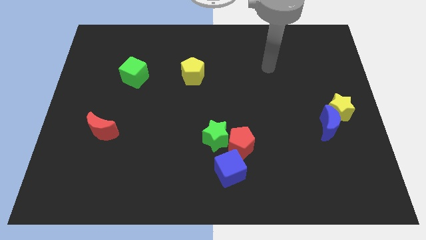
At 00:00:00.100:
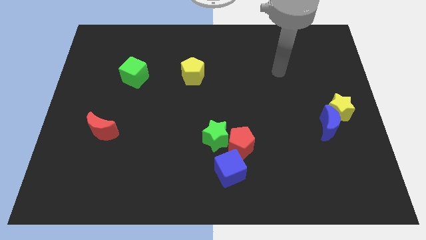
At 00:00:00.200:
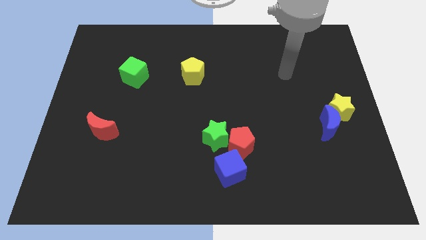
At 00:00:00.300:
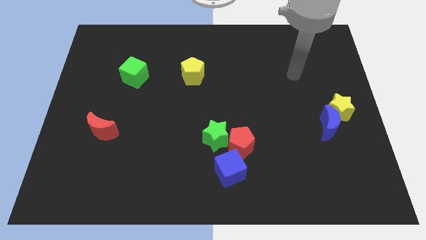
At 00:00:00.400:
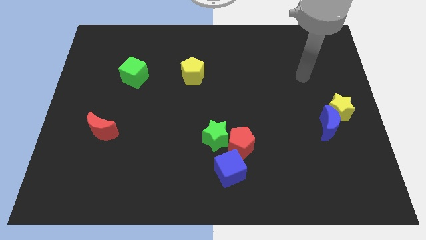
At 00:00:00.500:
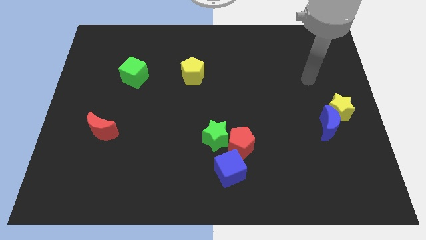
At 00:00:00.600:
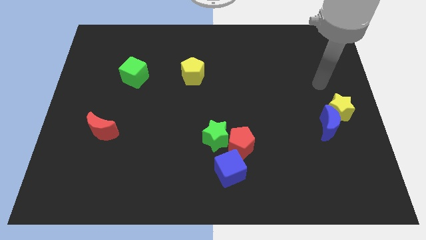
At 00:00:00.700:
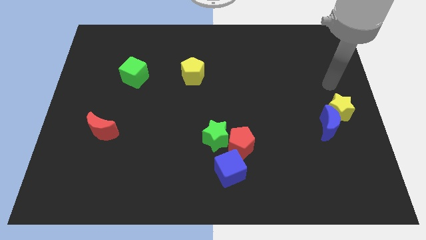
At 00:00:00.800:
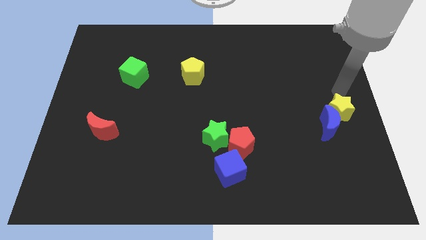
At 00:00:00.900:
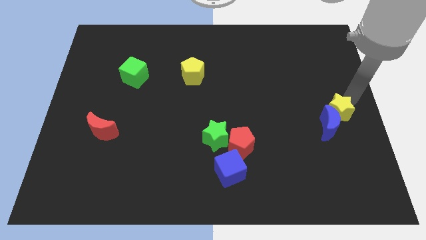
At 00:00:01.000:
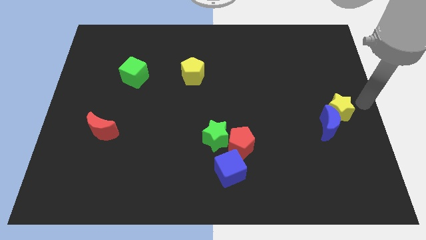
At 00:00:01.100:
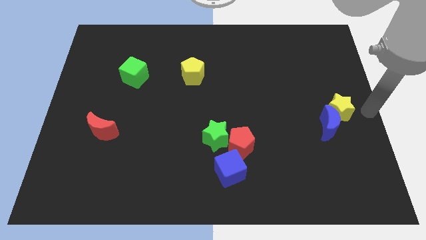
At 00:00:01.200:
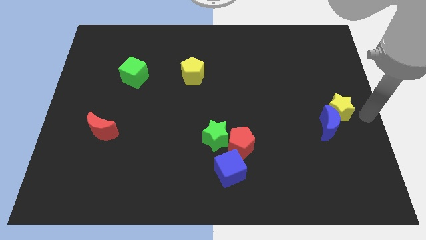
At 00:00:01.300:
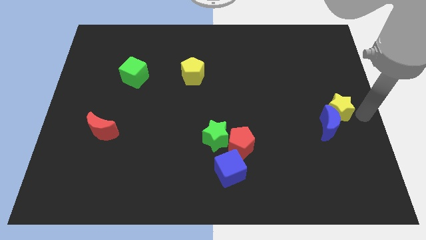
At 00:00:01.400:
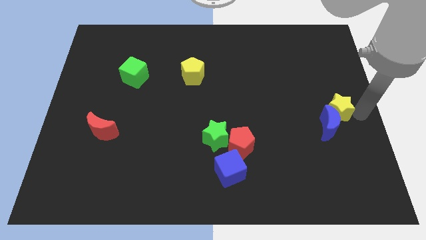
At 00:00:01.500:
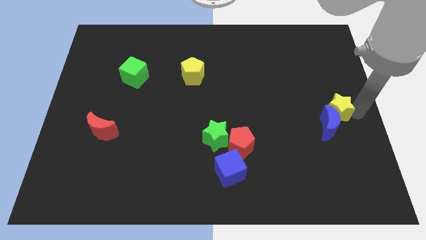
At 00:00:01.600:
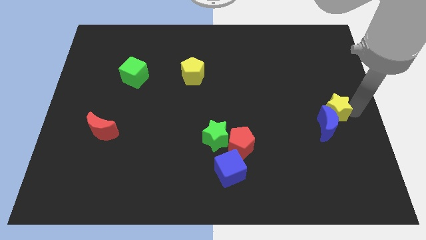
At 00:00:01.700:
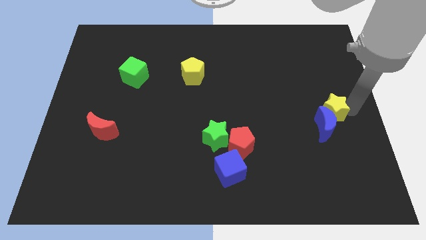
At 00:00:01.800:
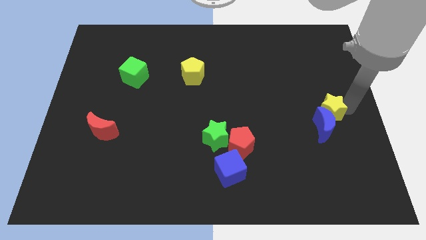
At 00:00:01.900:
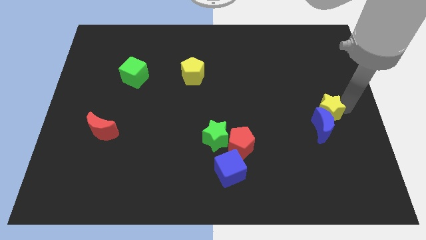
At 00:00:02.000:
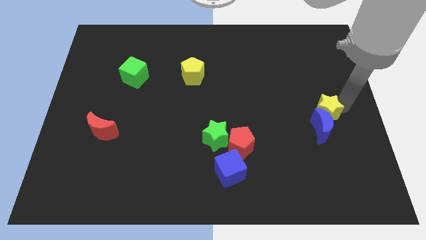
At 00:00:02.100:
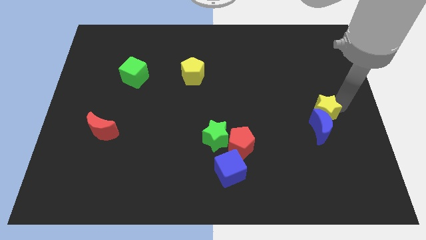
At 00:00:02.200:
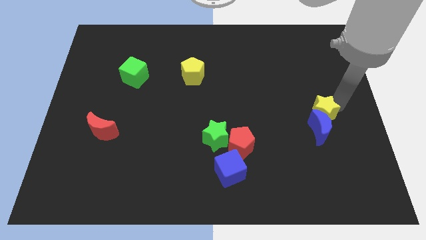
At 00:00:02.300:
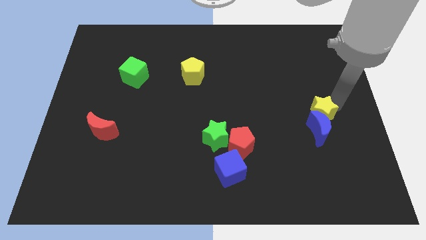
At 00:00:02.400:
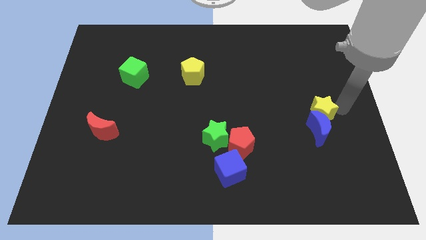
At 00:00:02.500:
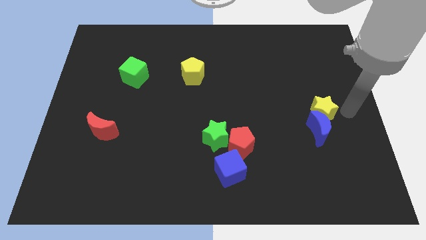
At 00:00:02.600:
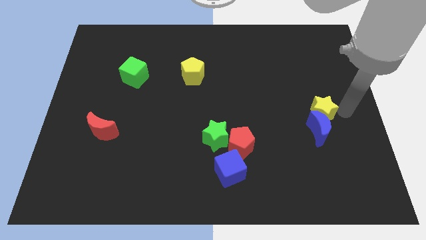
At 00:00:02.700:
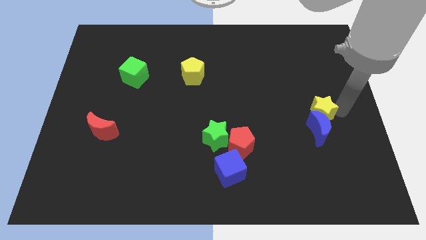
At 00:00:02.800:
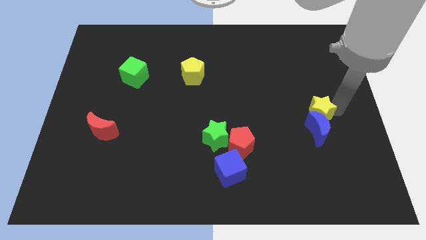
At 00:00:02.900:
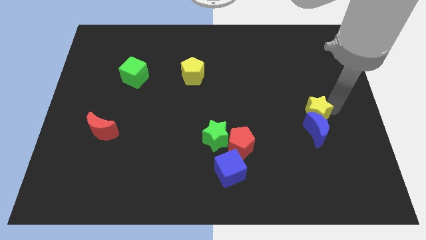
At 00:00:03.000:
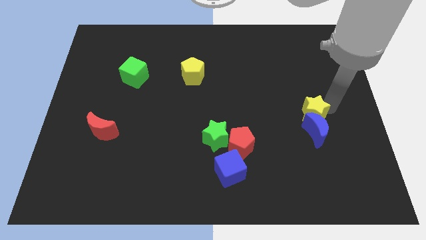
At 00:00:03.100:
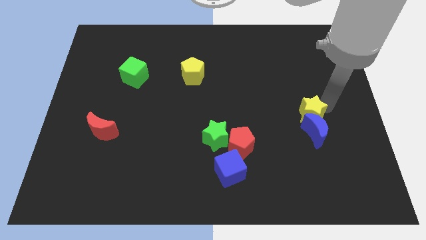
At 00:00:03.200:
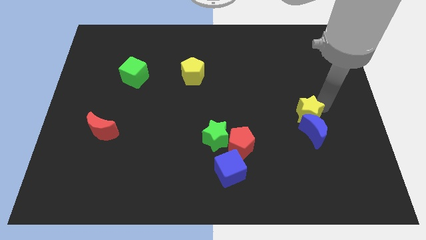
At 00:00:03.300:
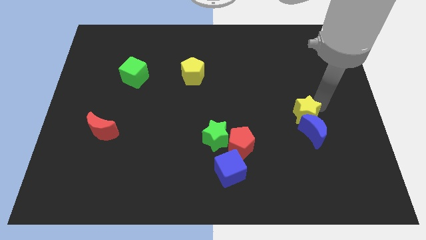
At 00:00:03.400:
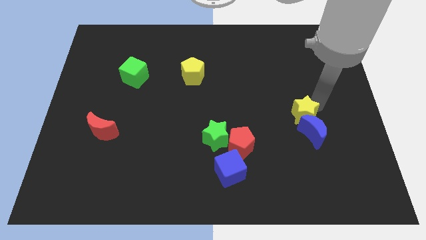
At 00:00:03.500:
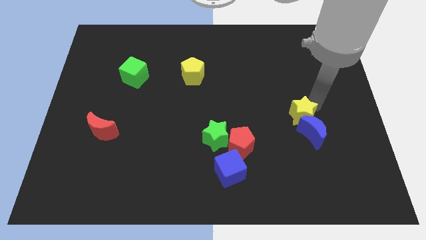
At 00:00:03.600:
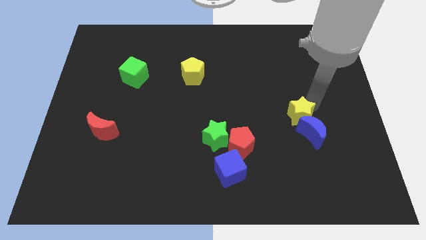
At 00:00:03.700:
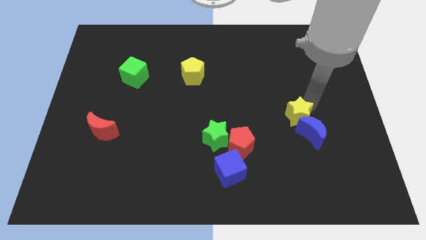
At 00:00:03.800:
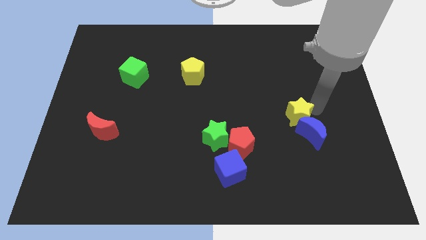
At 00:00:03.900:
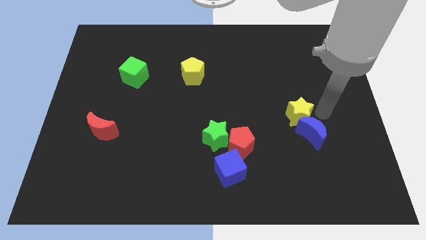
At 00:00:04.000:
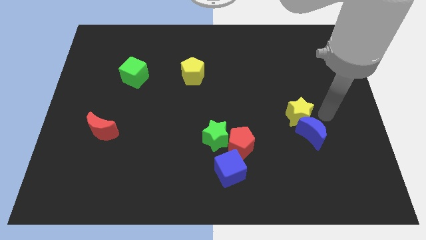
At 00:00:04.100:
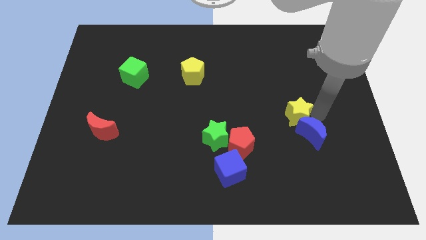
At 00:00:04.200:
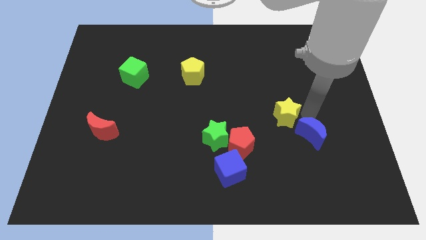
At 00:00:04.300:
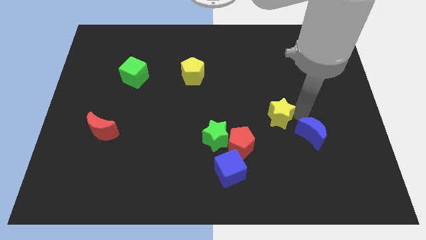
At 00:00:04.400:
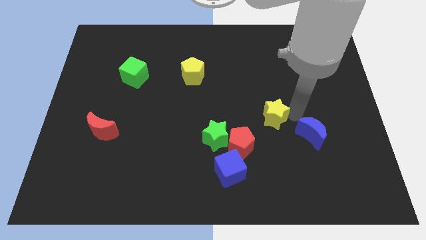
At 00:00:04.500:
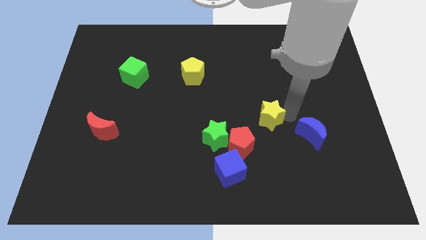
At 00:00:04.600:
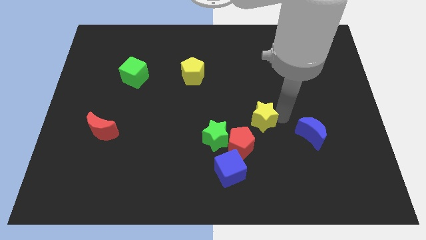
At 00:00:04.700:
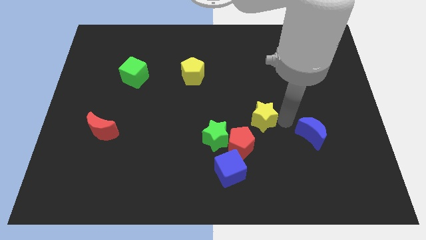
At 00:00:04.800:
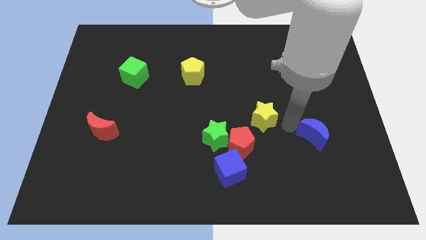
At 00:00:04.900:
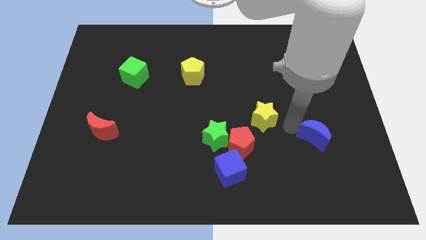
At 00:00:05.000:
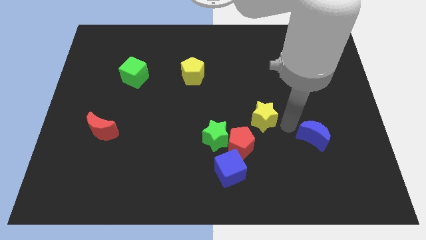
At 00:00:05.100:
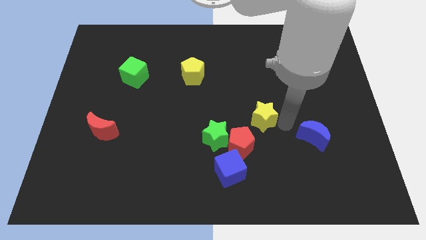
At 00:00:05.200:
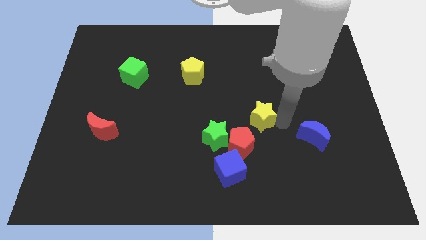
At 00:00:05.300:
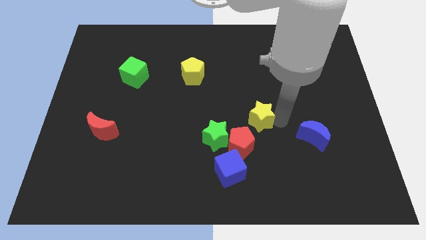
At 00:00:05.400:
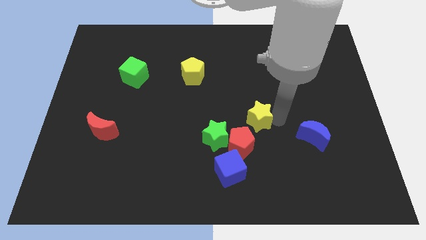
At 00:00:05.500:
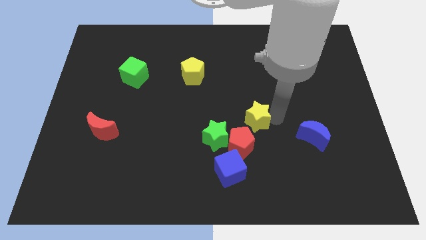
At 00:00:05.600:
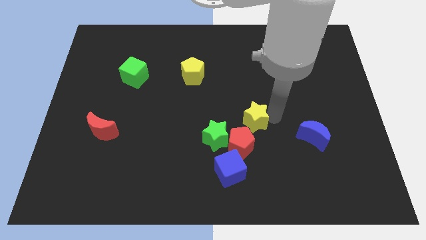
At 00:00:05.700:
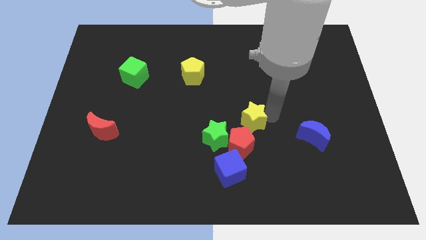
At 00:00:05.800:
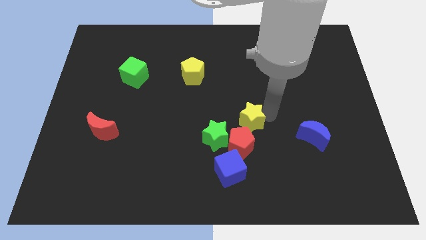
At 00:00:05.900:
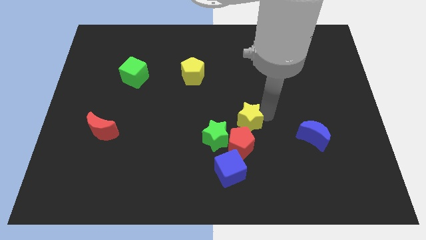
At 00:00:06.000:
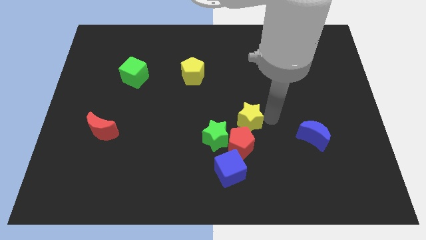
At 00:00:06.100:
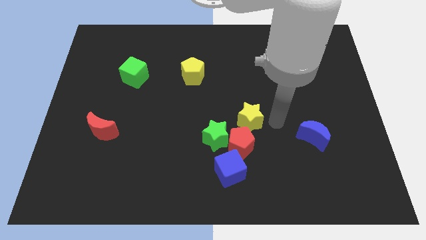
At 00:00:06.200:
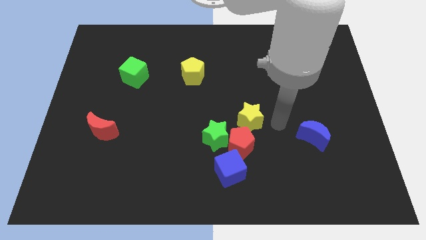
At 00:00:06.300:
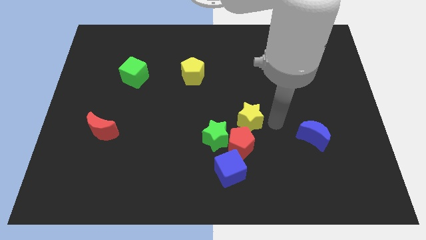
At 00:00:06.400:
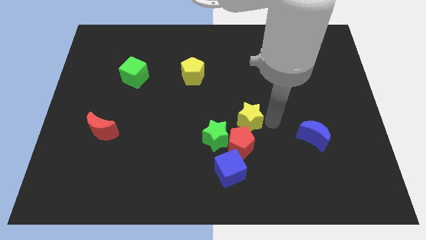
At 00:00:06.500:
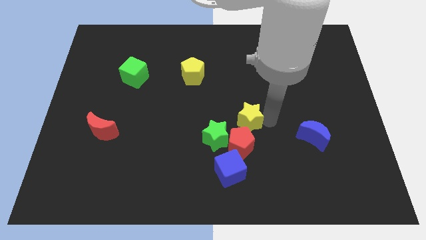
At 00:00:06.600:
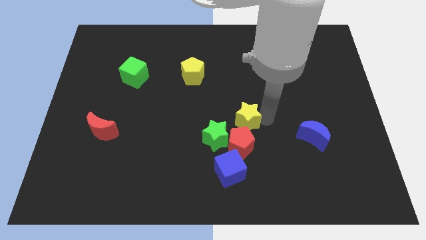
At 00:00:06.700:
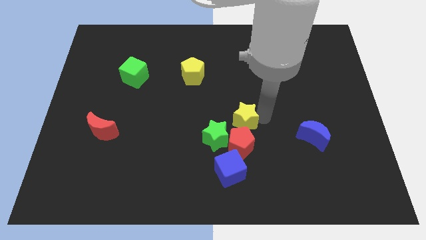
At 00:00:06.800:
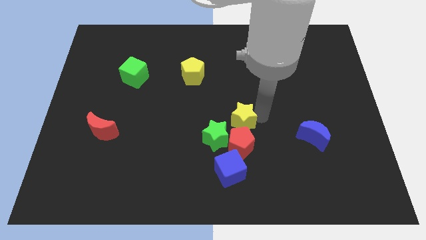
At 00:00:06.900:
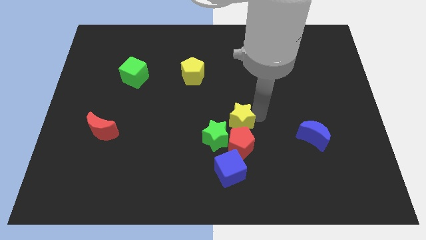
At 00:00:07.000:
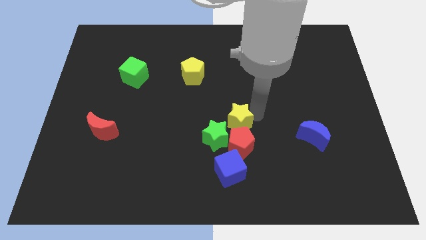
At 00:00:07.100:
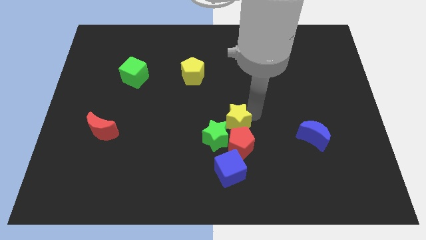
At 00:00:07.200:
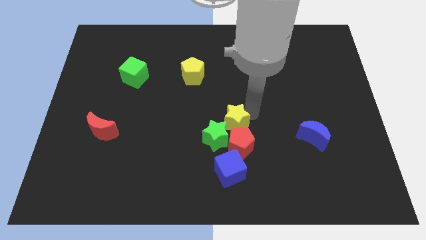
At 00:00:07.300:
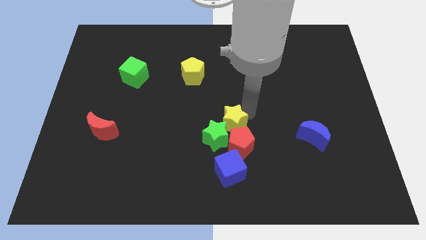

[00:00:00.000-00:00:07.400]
put the yellow star towards the green star
